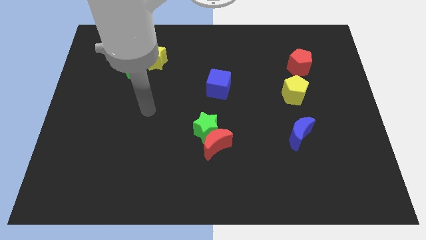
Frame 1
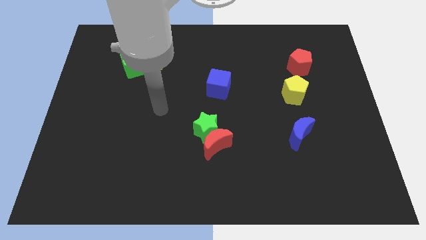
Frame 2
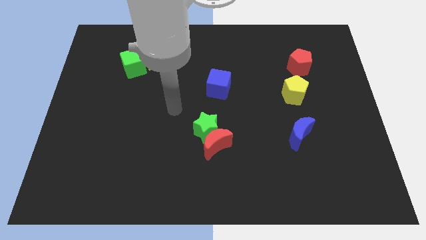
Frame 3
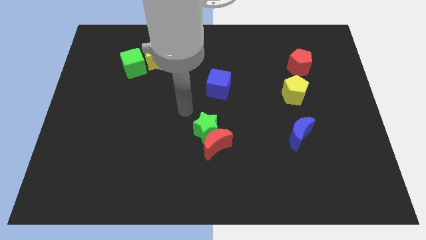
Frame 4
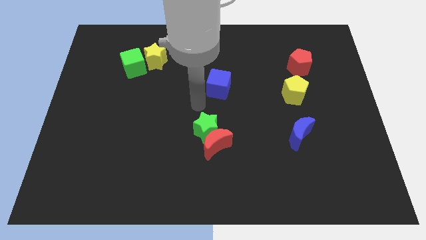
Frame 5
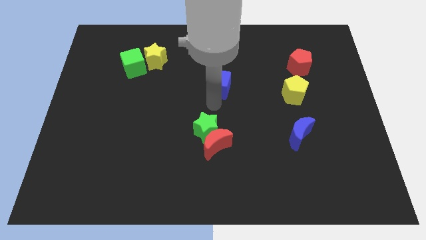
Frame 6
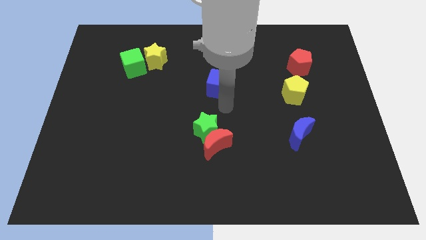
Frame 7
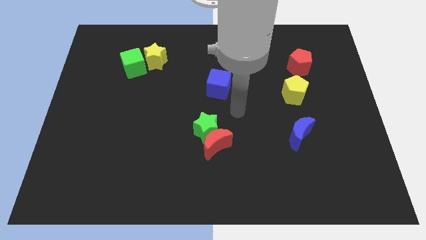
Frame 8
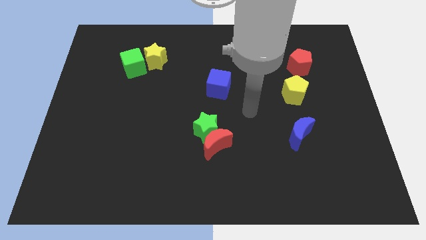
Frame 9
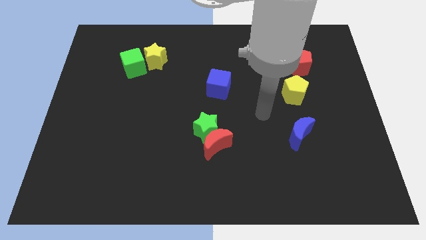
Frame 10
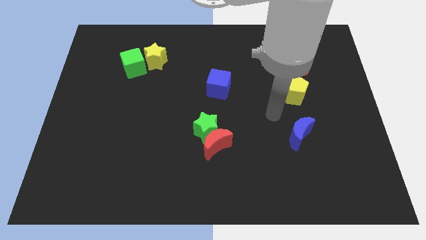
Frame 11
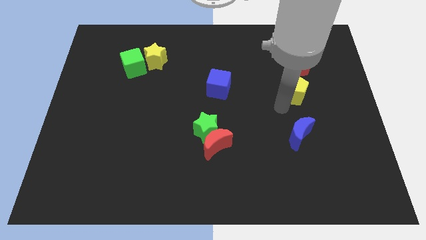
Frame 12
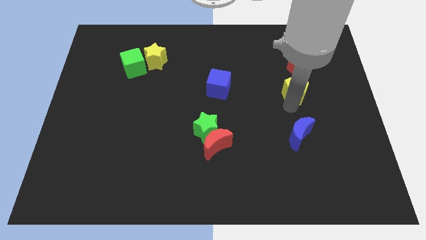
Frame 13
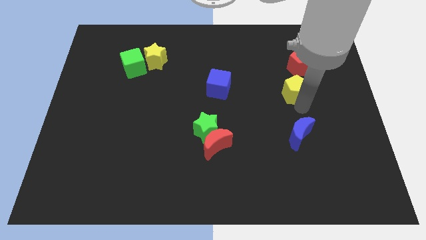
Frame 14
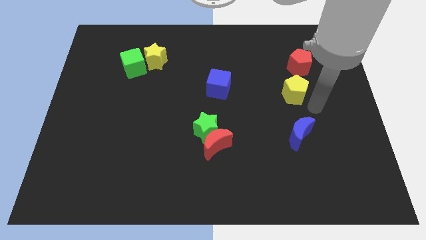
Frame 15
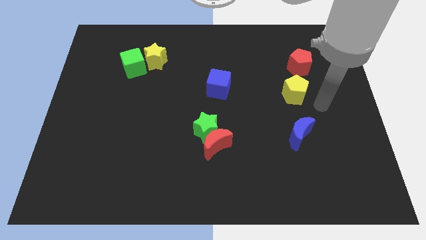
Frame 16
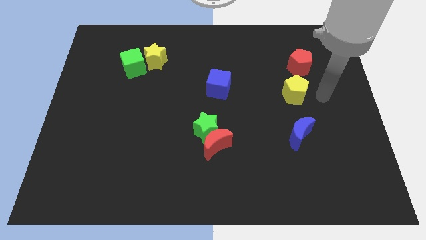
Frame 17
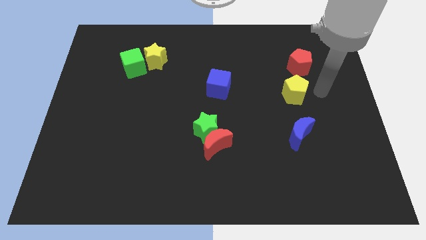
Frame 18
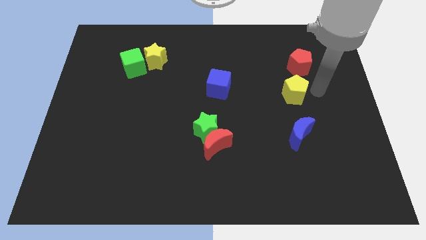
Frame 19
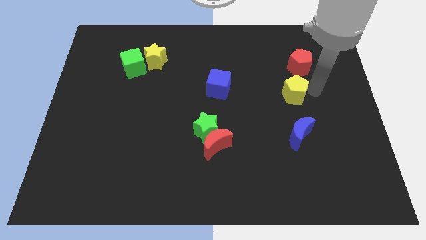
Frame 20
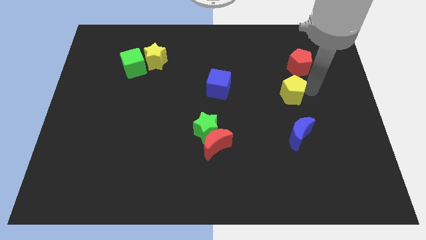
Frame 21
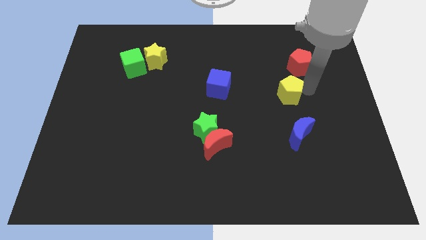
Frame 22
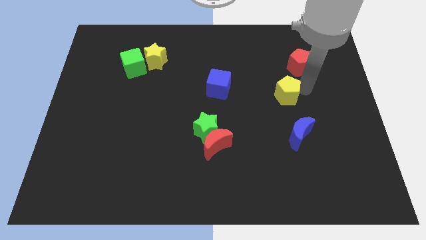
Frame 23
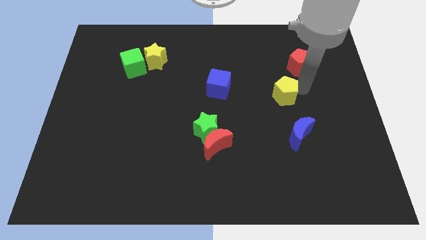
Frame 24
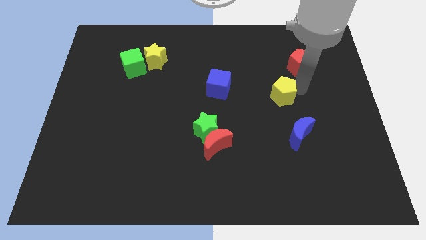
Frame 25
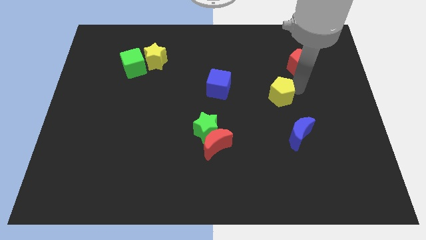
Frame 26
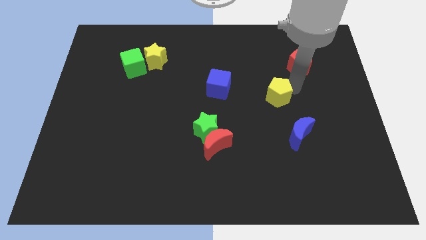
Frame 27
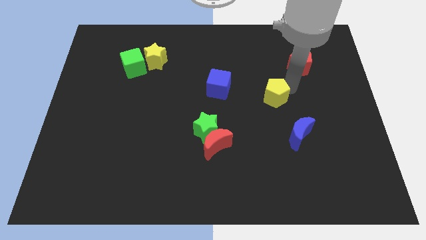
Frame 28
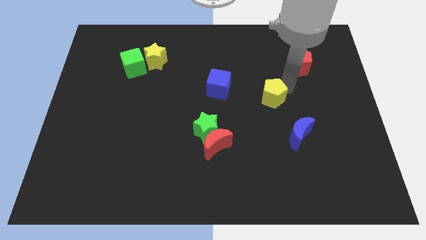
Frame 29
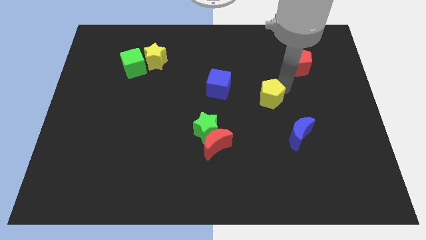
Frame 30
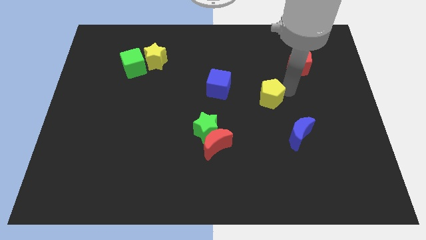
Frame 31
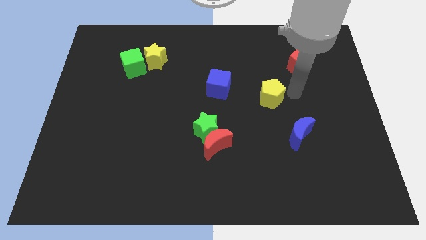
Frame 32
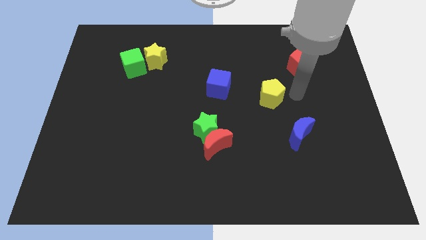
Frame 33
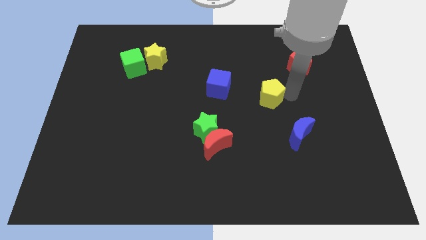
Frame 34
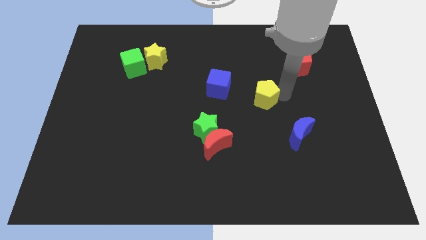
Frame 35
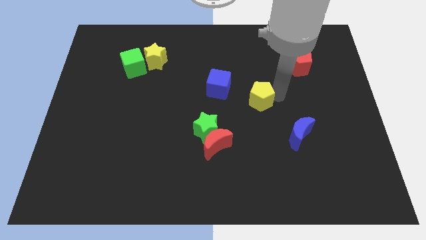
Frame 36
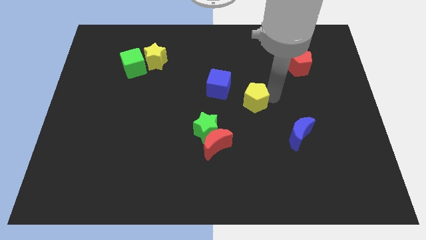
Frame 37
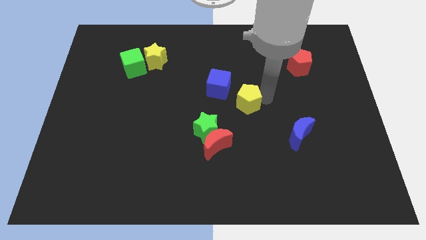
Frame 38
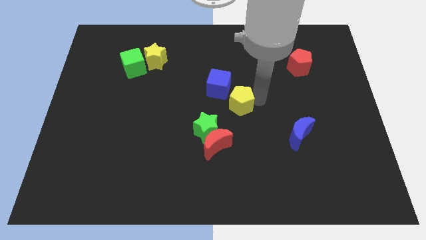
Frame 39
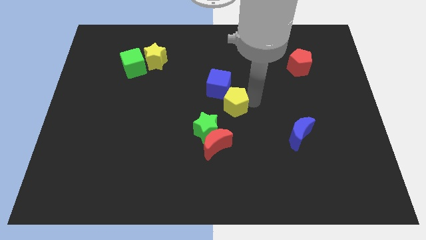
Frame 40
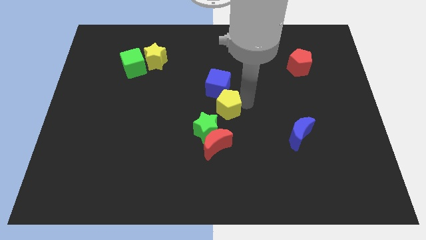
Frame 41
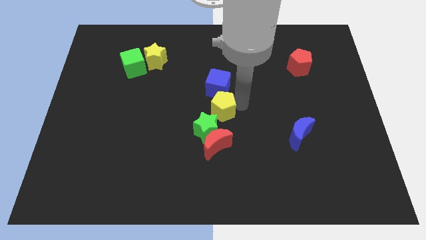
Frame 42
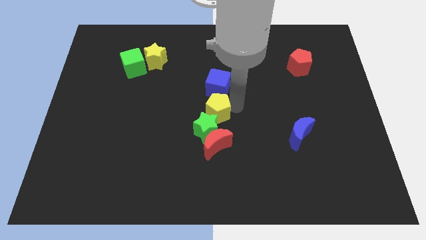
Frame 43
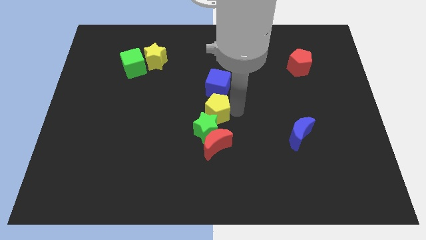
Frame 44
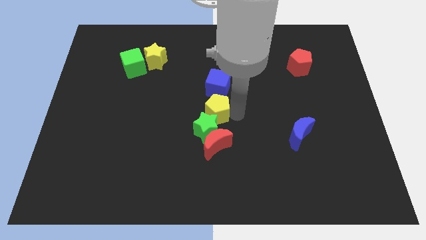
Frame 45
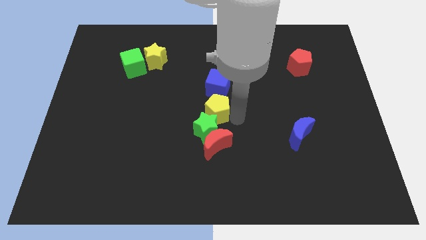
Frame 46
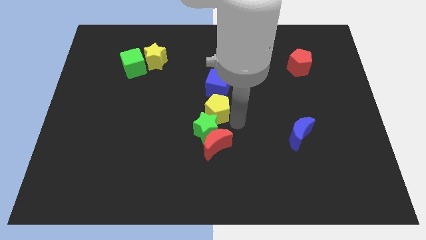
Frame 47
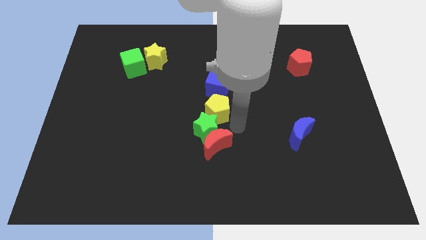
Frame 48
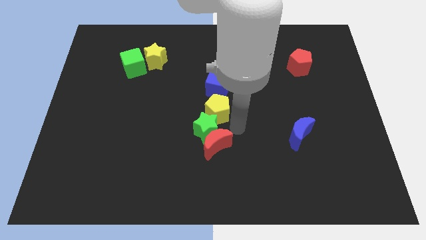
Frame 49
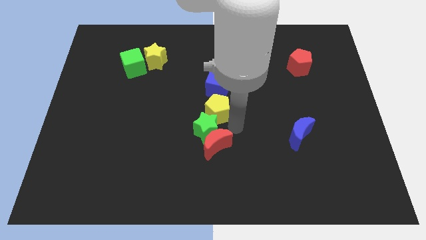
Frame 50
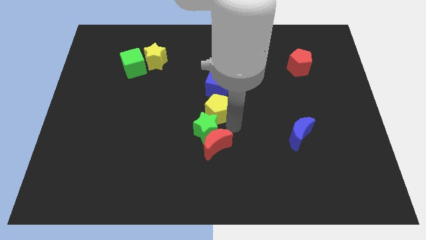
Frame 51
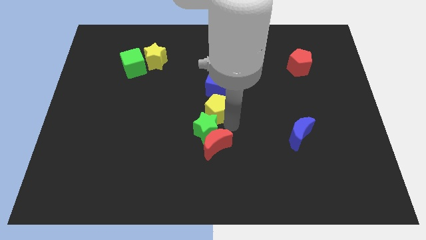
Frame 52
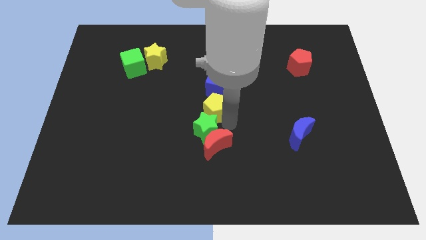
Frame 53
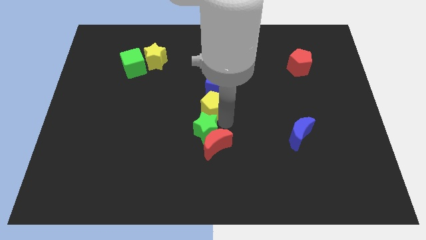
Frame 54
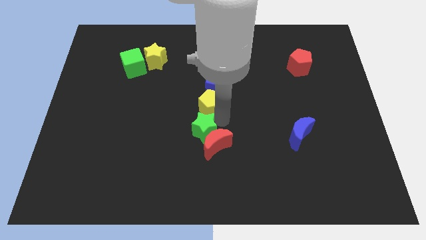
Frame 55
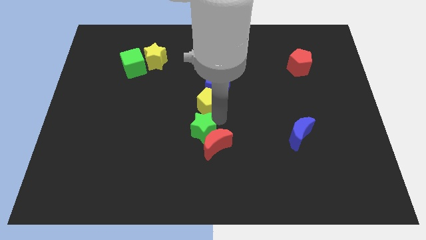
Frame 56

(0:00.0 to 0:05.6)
slide the yellow pentagon to the left

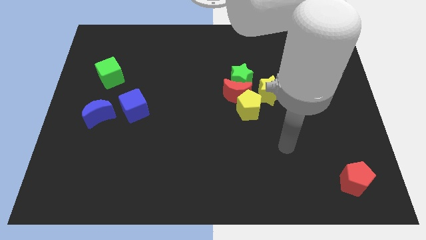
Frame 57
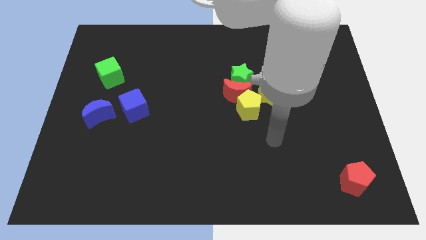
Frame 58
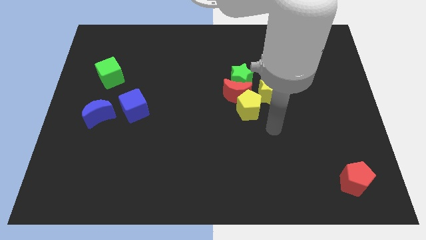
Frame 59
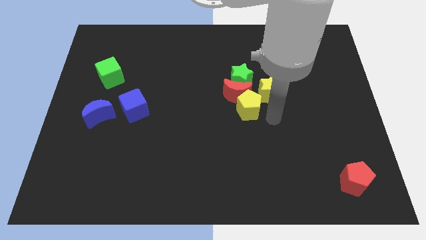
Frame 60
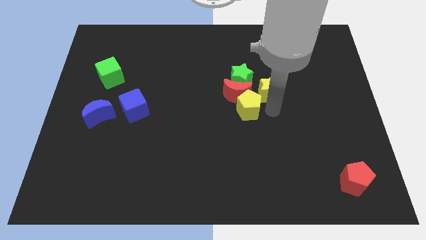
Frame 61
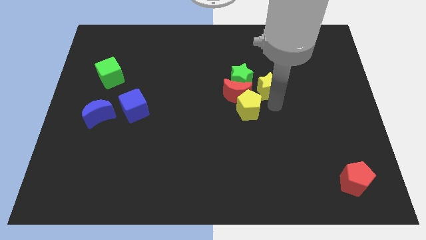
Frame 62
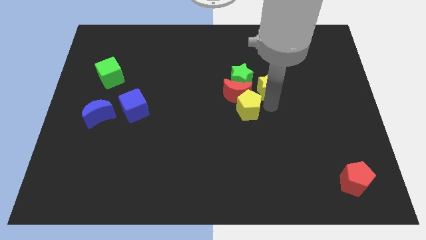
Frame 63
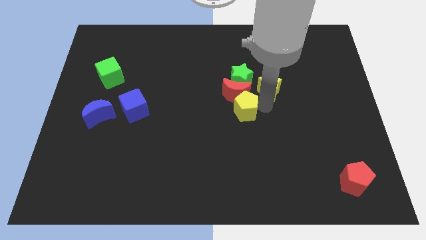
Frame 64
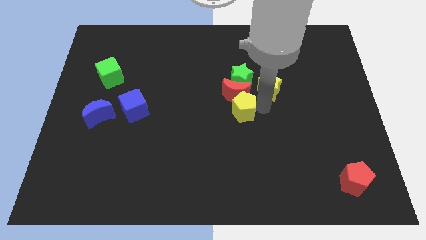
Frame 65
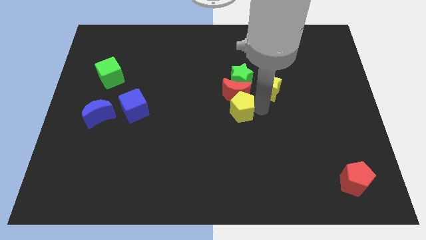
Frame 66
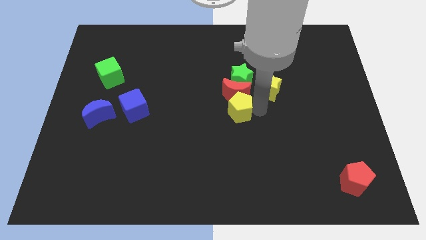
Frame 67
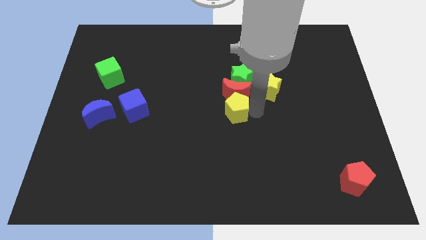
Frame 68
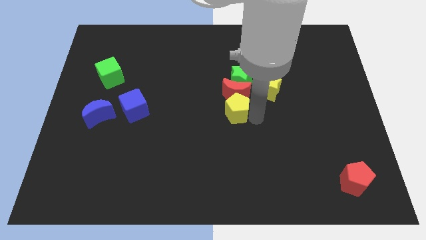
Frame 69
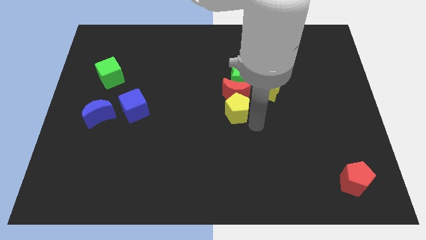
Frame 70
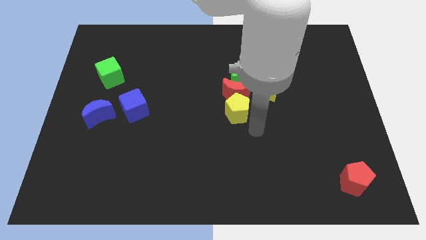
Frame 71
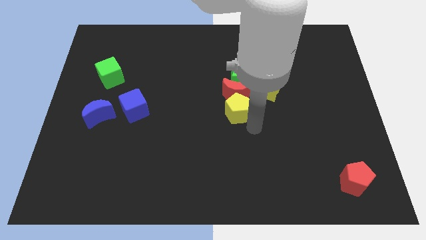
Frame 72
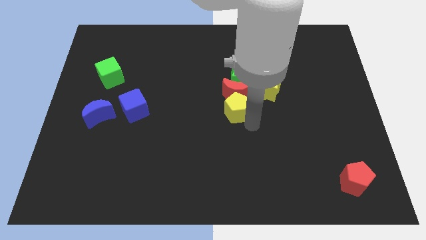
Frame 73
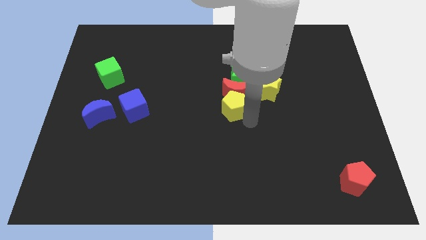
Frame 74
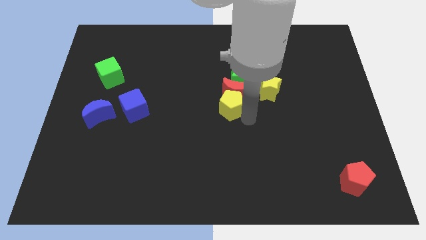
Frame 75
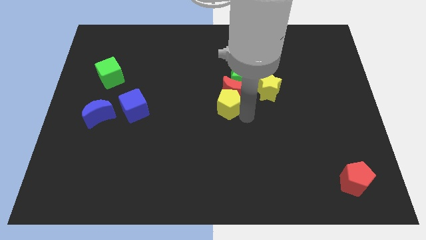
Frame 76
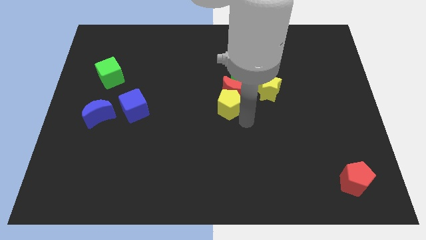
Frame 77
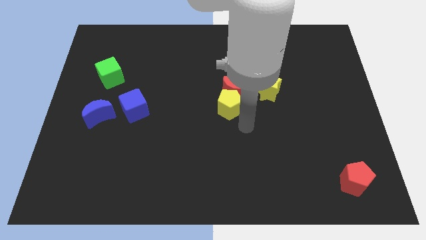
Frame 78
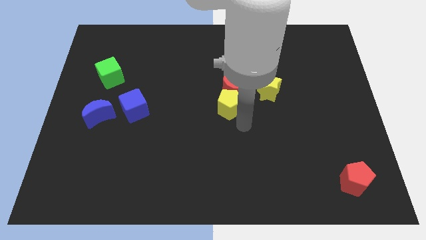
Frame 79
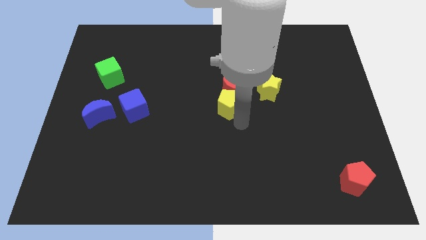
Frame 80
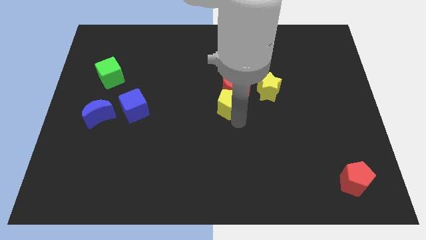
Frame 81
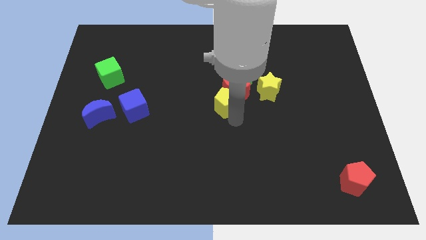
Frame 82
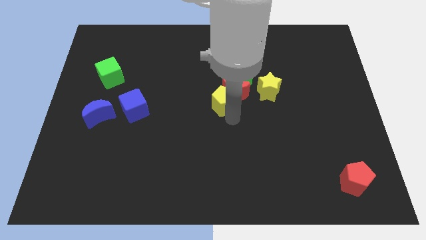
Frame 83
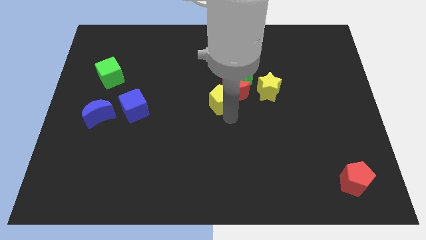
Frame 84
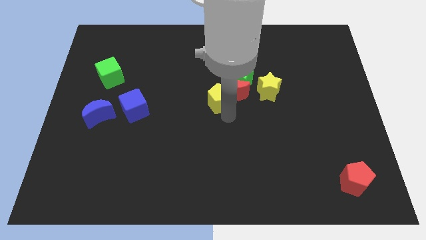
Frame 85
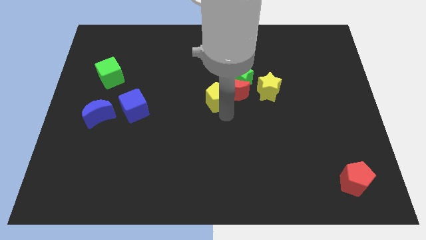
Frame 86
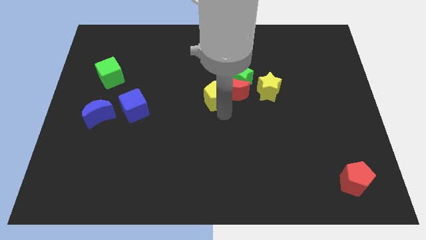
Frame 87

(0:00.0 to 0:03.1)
slide the yellow pentagon diagonally up and left a little
